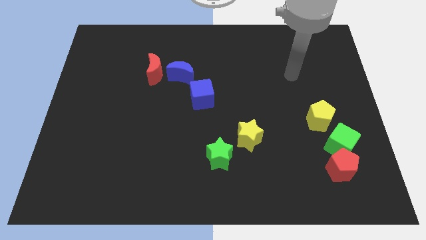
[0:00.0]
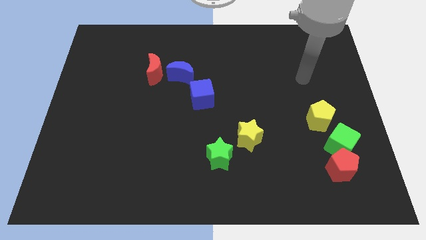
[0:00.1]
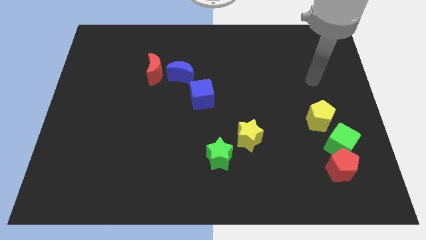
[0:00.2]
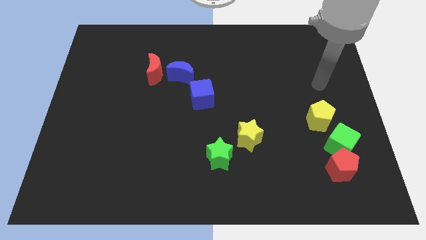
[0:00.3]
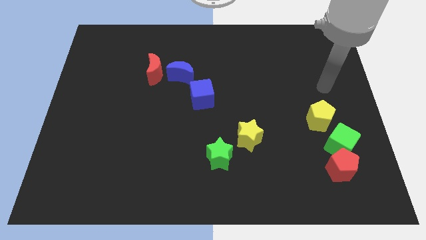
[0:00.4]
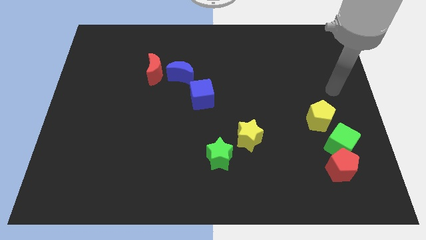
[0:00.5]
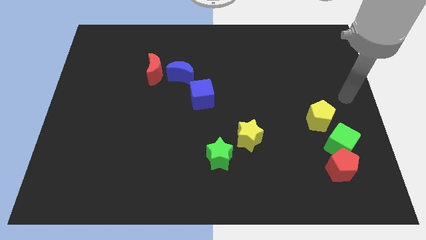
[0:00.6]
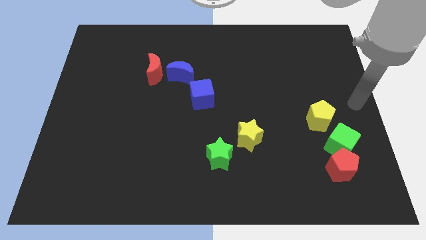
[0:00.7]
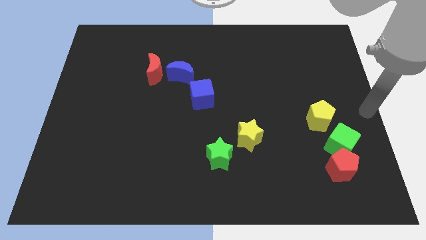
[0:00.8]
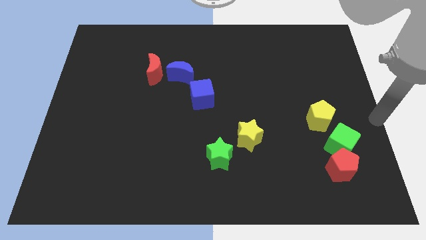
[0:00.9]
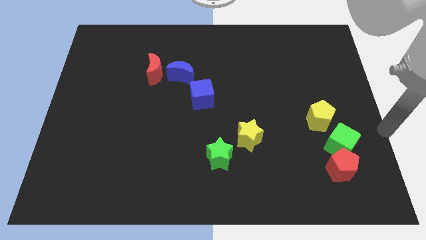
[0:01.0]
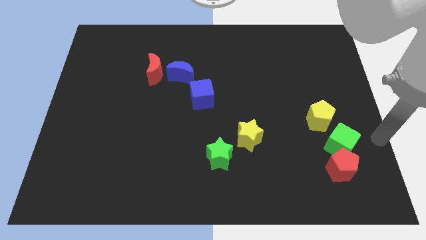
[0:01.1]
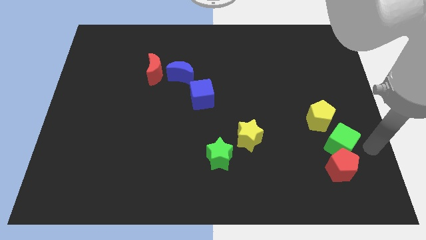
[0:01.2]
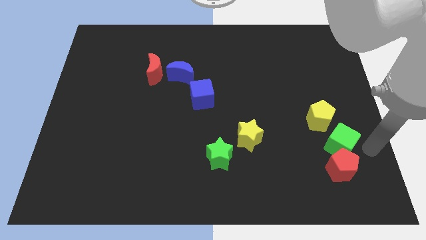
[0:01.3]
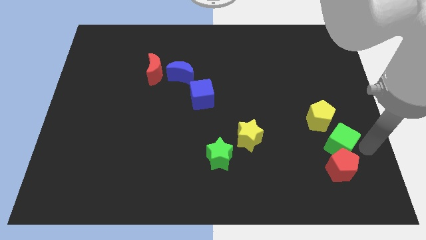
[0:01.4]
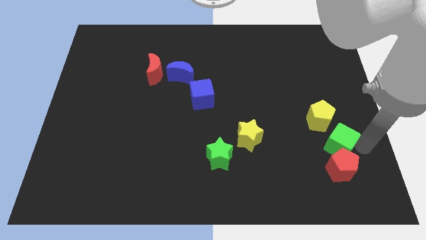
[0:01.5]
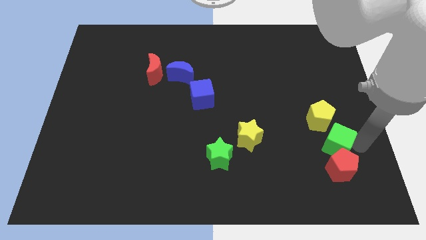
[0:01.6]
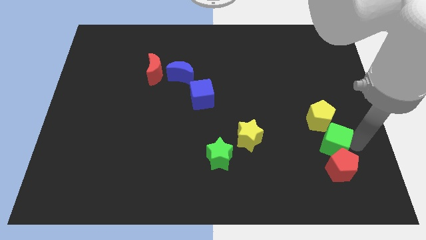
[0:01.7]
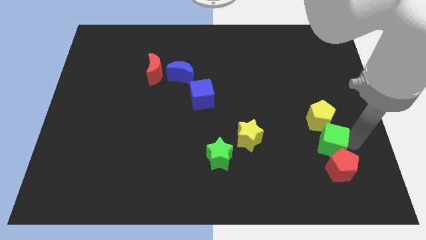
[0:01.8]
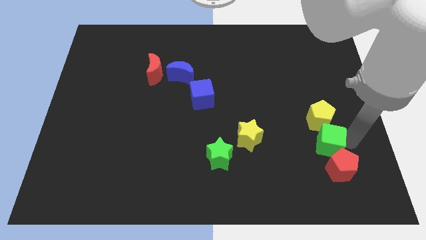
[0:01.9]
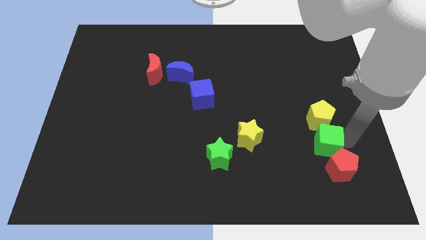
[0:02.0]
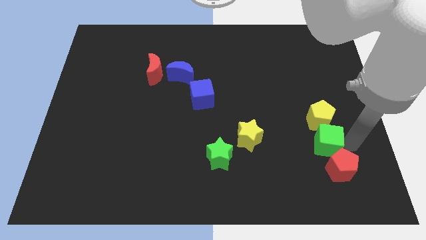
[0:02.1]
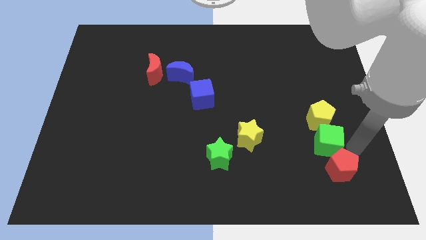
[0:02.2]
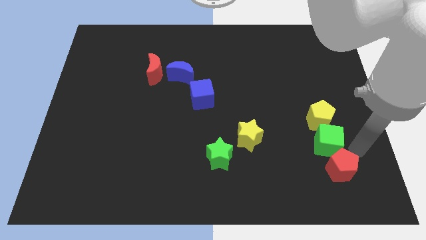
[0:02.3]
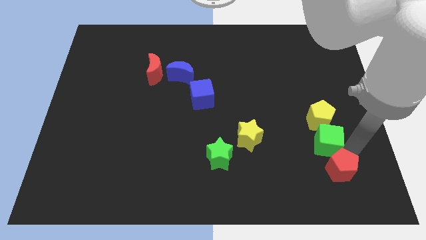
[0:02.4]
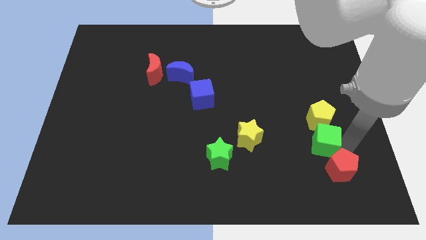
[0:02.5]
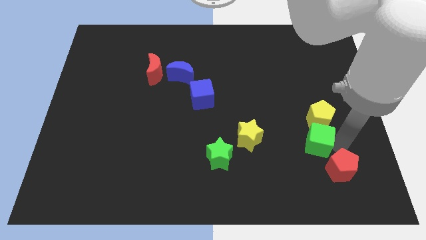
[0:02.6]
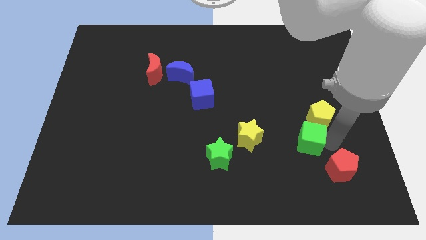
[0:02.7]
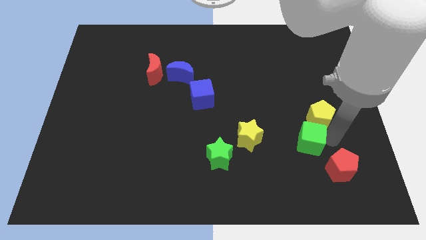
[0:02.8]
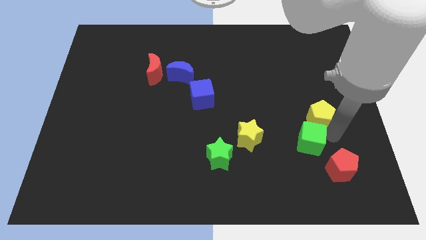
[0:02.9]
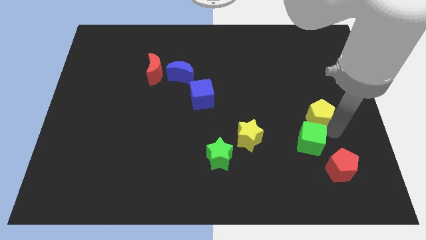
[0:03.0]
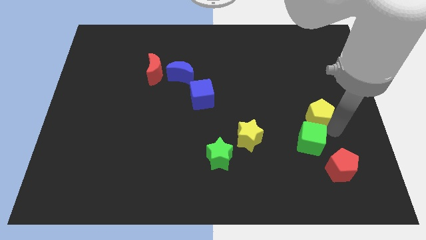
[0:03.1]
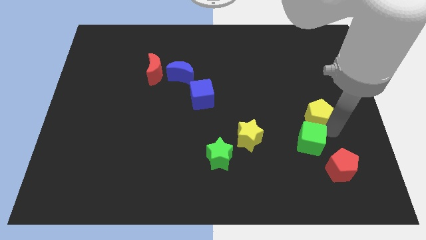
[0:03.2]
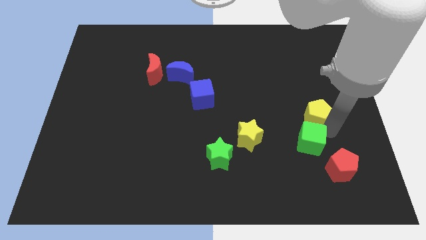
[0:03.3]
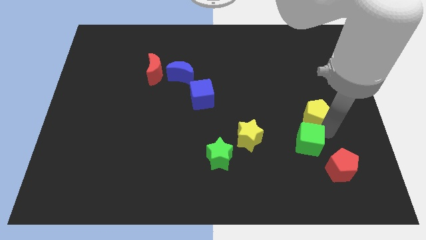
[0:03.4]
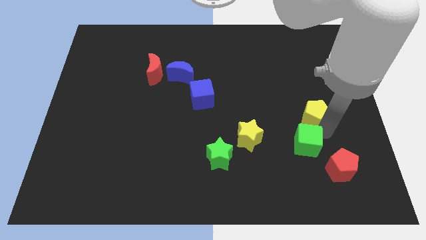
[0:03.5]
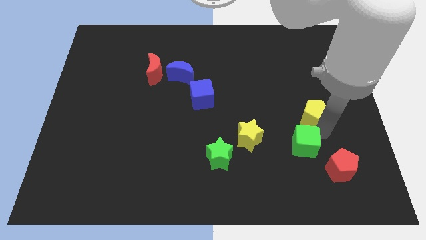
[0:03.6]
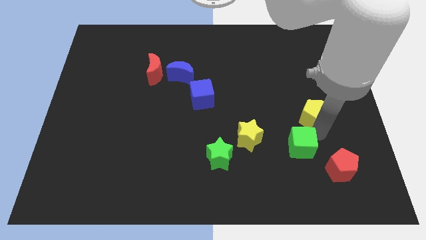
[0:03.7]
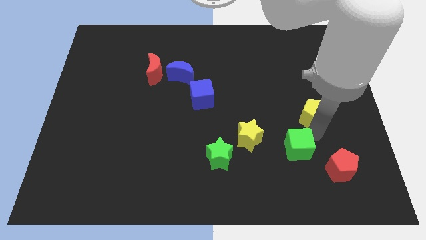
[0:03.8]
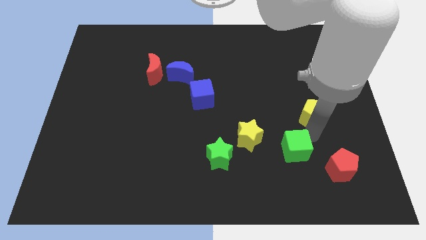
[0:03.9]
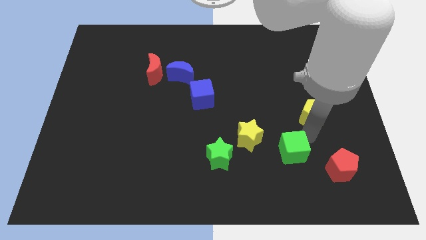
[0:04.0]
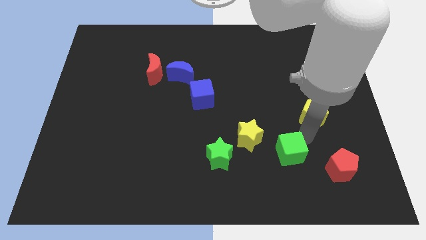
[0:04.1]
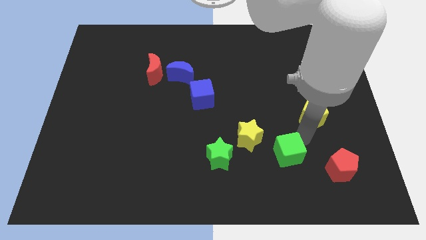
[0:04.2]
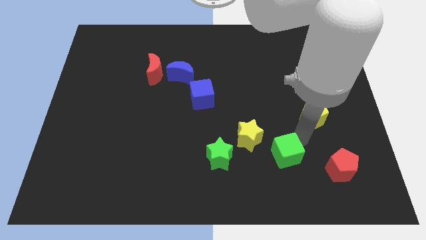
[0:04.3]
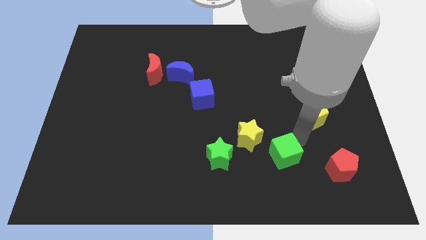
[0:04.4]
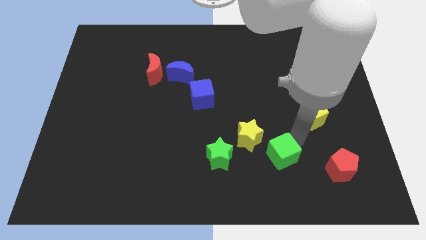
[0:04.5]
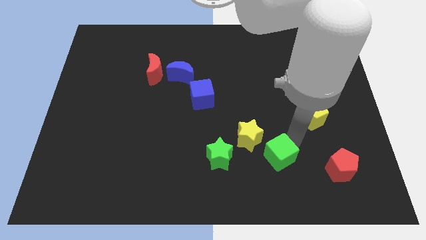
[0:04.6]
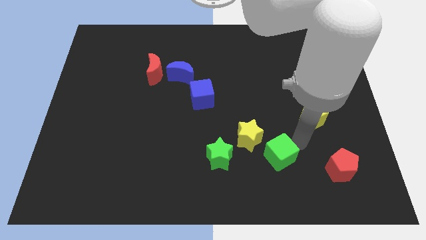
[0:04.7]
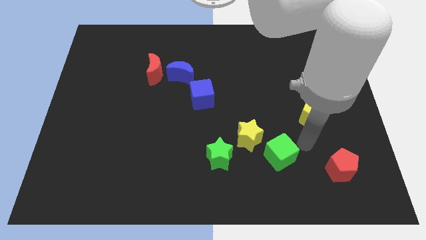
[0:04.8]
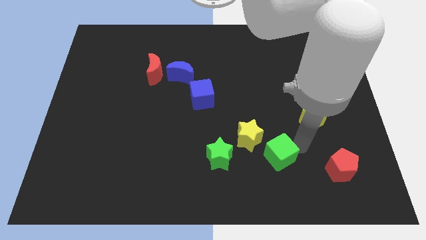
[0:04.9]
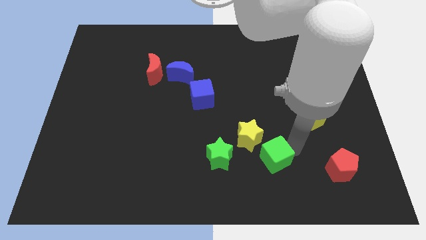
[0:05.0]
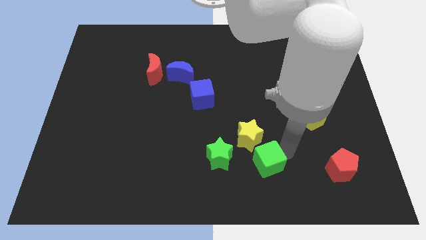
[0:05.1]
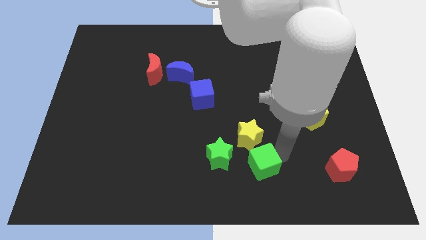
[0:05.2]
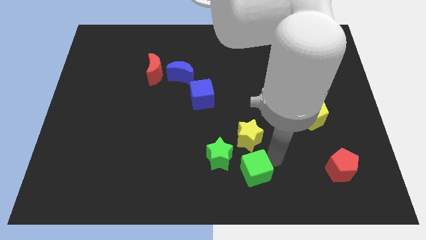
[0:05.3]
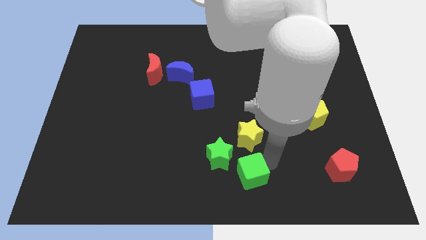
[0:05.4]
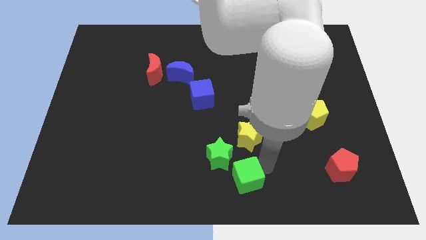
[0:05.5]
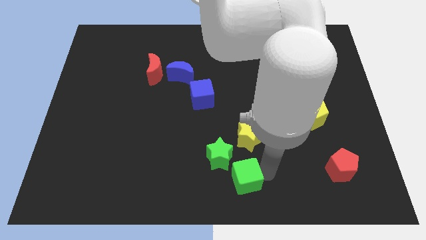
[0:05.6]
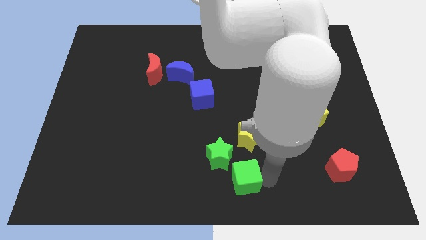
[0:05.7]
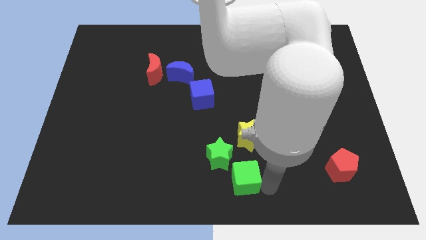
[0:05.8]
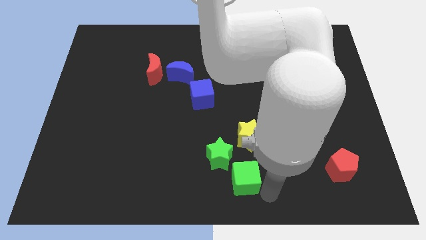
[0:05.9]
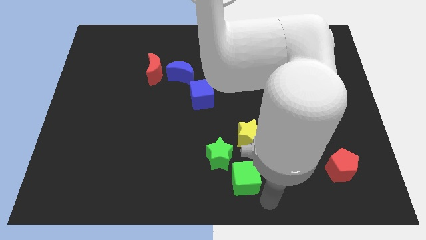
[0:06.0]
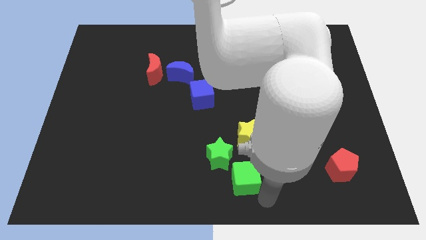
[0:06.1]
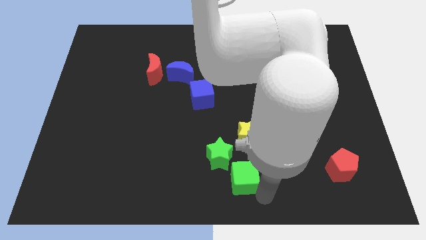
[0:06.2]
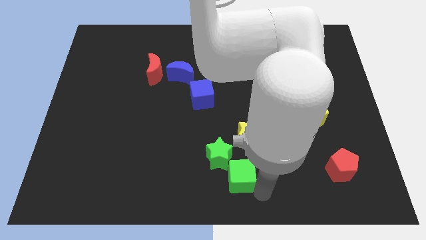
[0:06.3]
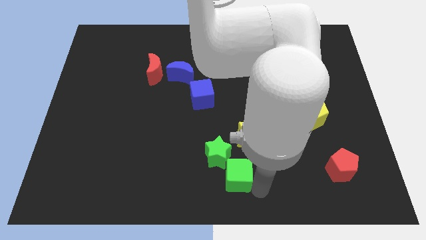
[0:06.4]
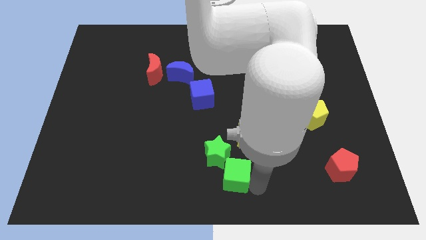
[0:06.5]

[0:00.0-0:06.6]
push the green cube next to the green star
